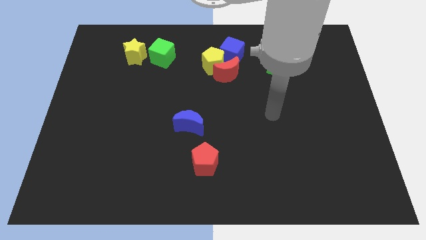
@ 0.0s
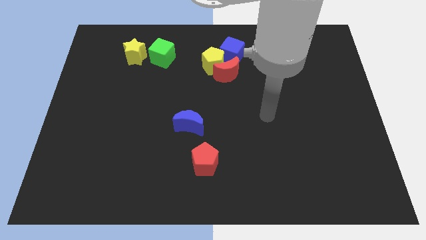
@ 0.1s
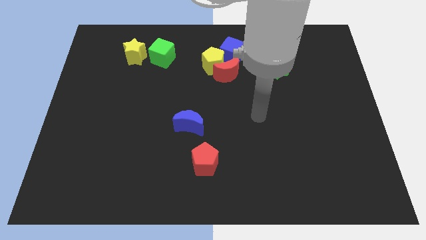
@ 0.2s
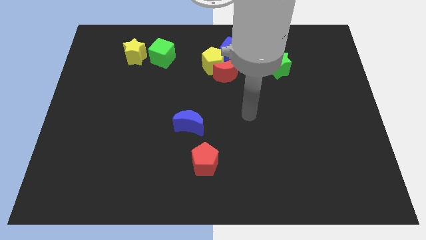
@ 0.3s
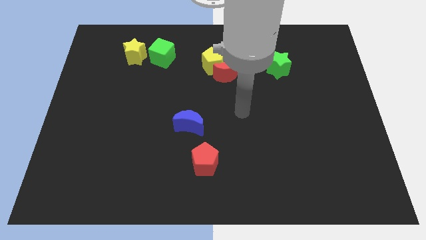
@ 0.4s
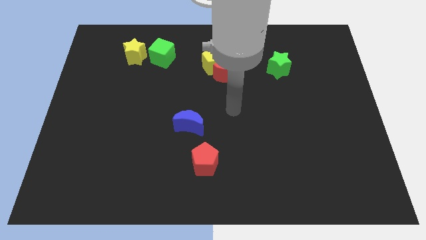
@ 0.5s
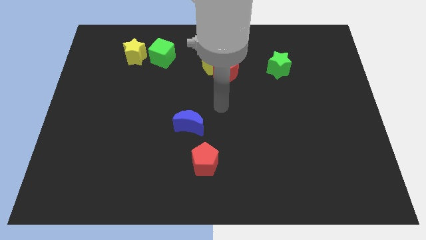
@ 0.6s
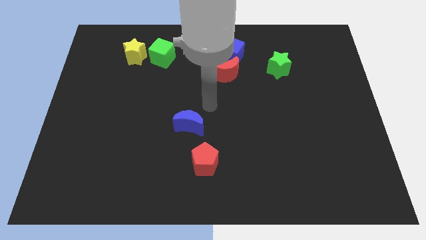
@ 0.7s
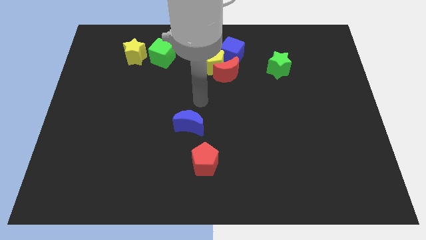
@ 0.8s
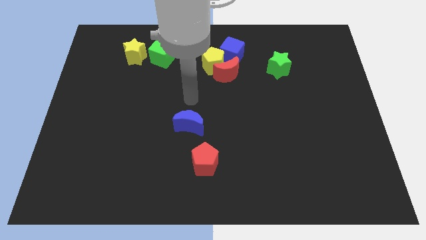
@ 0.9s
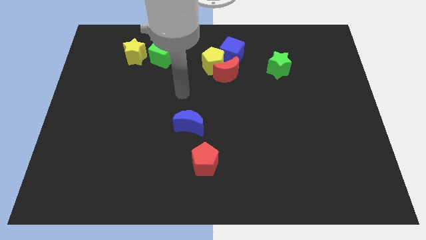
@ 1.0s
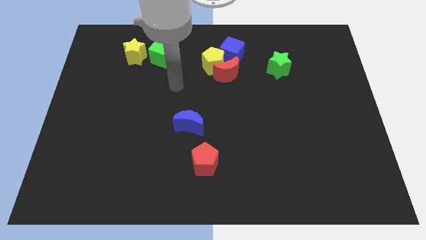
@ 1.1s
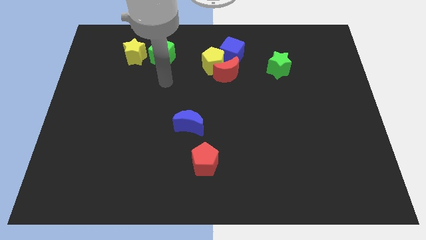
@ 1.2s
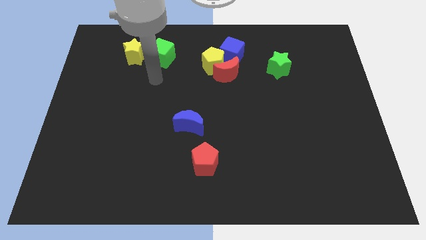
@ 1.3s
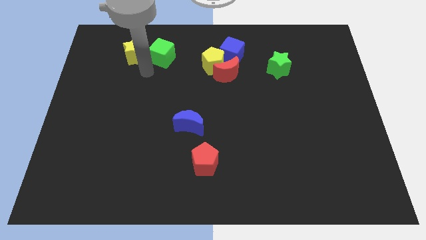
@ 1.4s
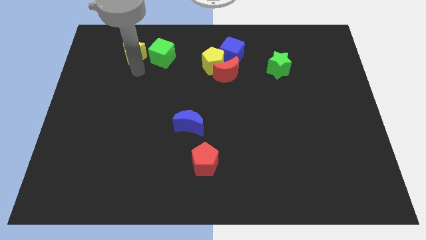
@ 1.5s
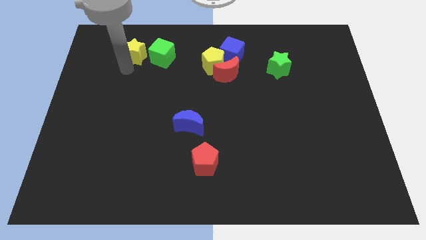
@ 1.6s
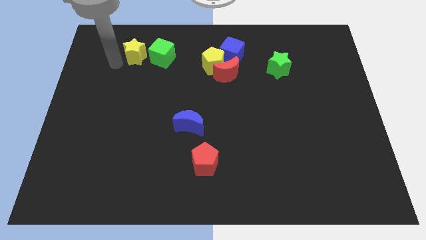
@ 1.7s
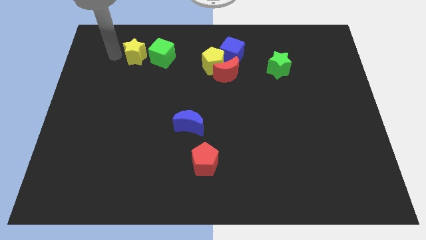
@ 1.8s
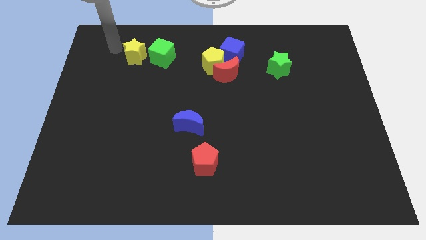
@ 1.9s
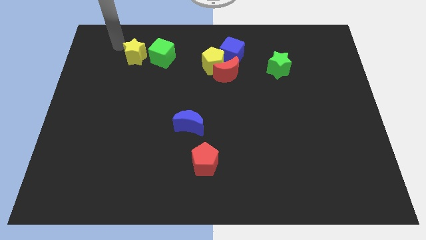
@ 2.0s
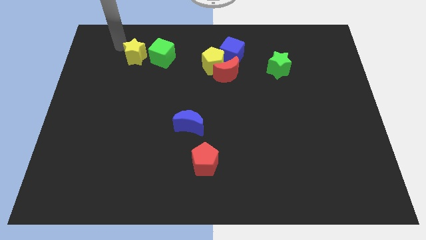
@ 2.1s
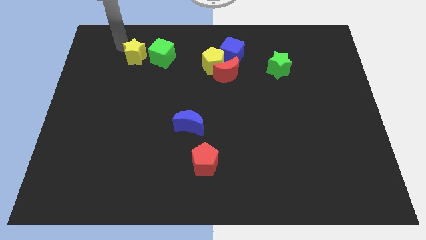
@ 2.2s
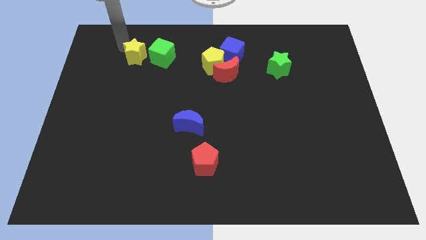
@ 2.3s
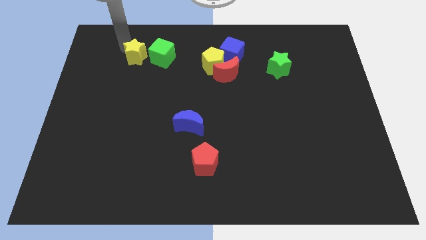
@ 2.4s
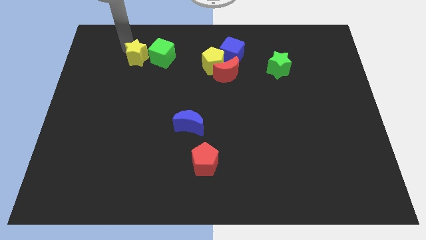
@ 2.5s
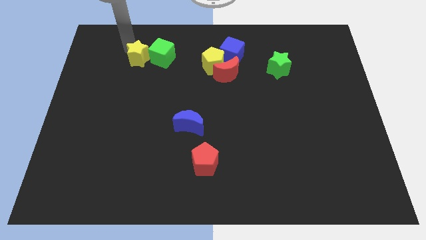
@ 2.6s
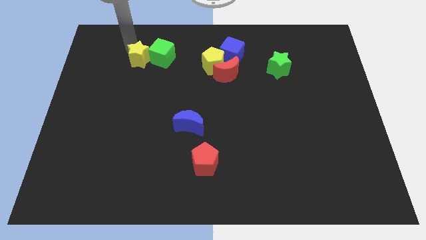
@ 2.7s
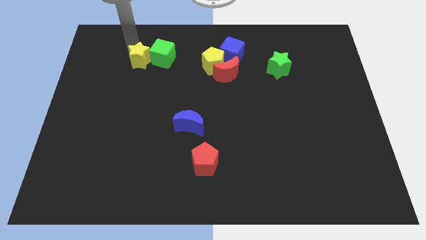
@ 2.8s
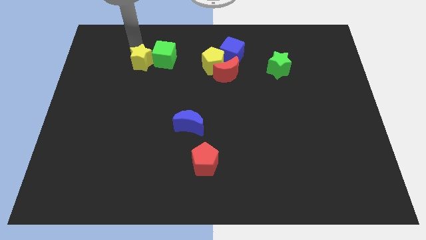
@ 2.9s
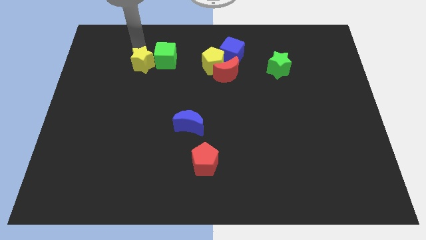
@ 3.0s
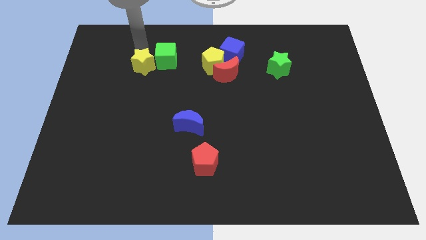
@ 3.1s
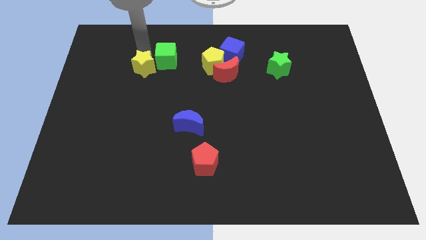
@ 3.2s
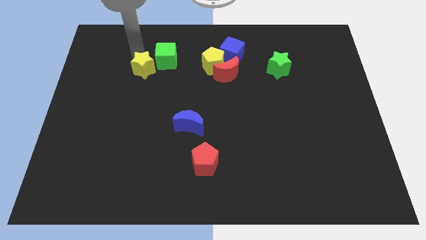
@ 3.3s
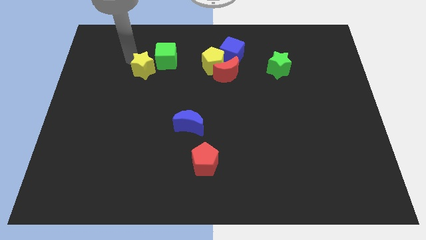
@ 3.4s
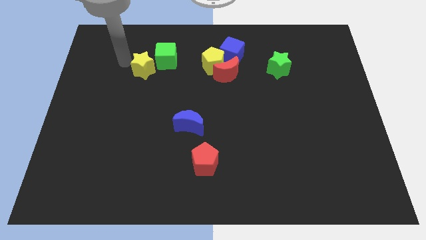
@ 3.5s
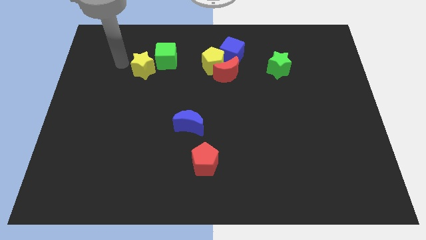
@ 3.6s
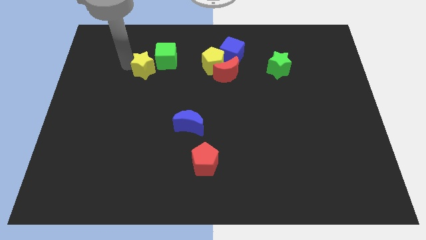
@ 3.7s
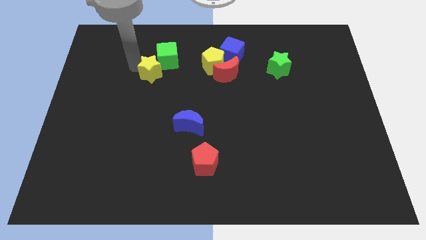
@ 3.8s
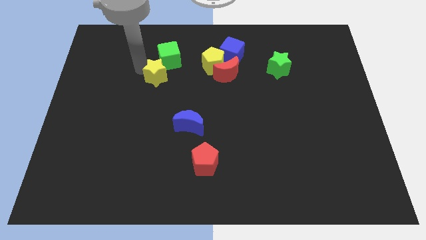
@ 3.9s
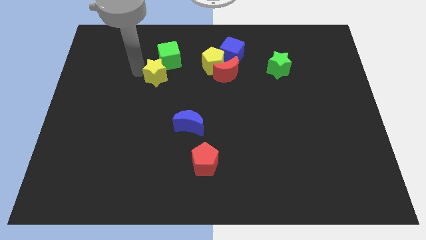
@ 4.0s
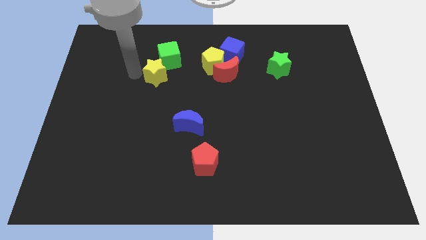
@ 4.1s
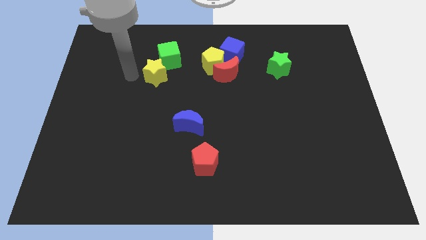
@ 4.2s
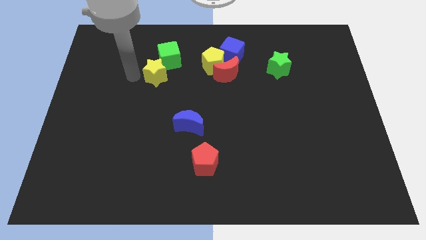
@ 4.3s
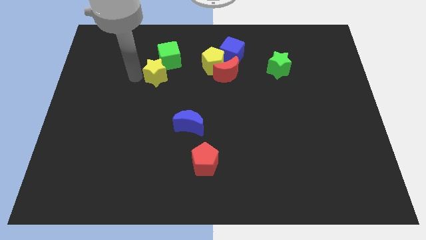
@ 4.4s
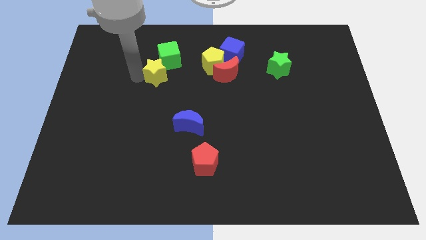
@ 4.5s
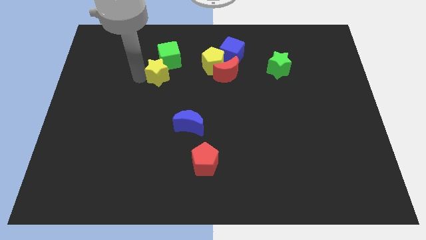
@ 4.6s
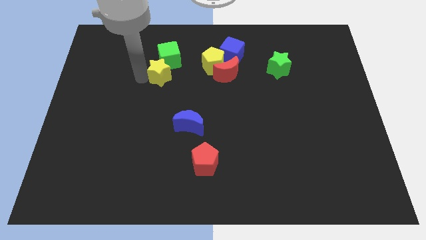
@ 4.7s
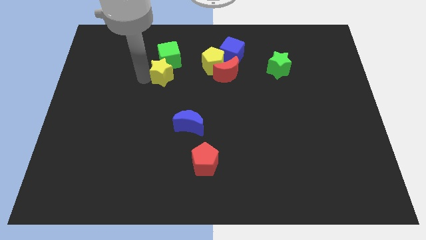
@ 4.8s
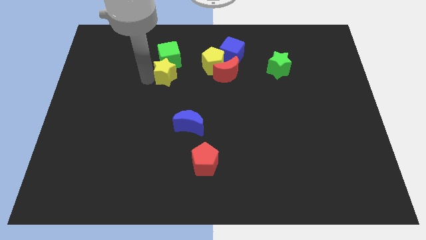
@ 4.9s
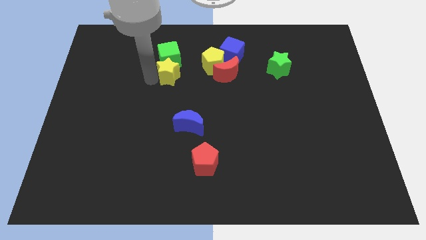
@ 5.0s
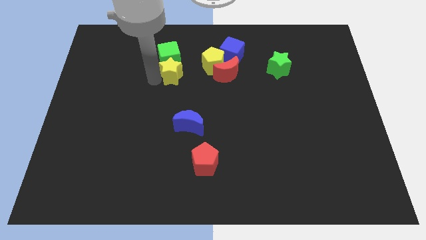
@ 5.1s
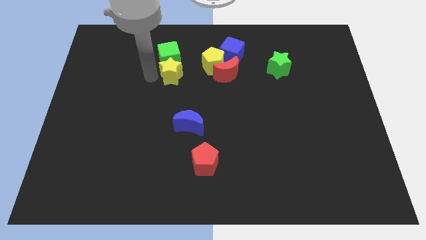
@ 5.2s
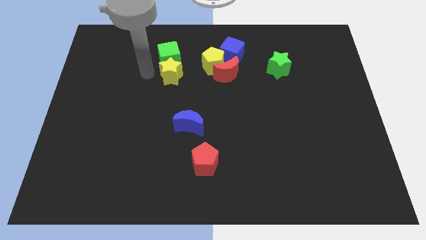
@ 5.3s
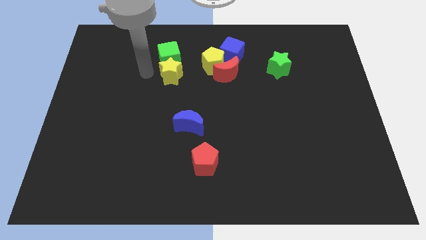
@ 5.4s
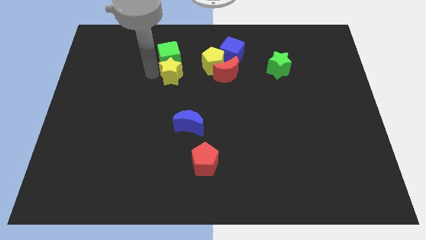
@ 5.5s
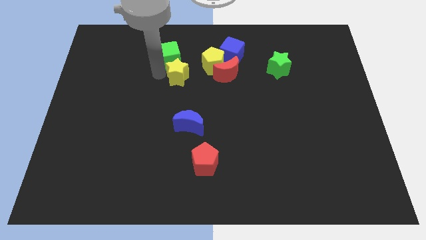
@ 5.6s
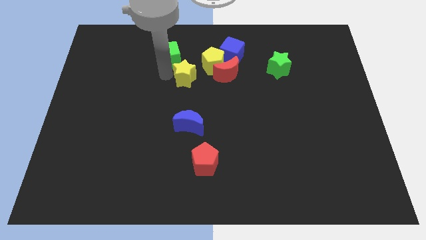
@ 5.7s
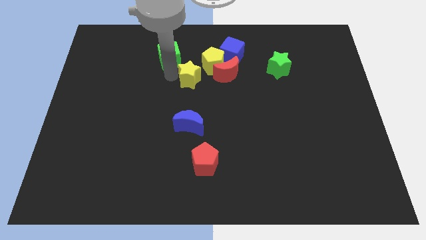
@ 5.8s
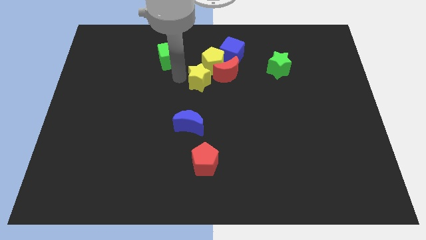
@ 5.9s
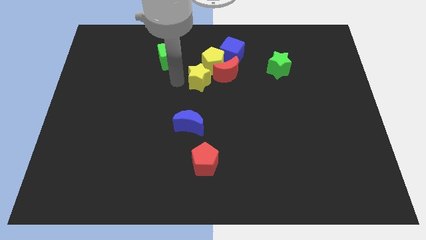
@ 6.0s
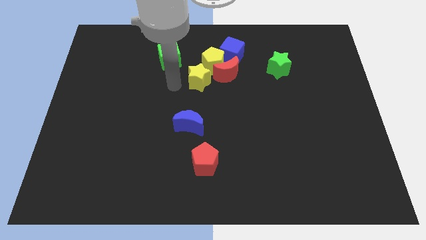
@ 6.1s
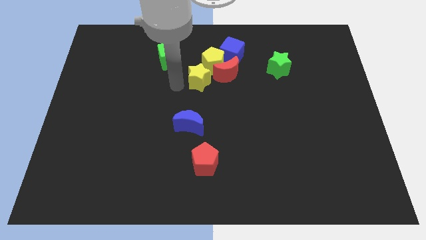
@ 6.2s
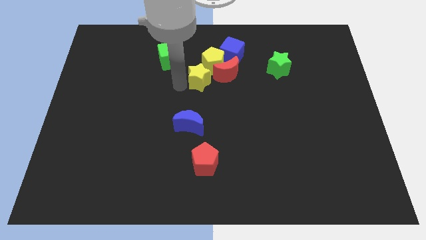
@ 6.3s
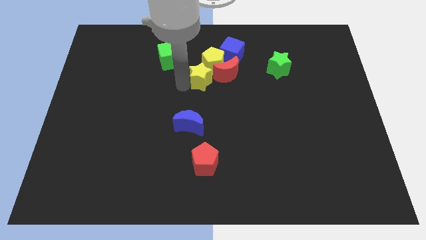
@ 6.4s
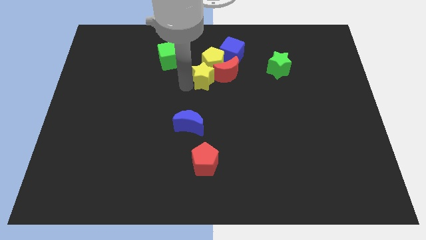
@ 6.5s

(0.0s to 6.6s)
slide the yellow star close to the red moon
